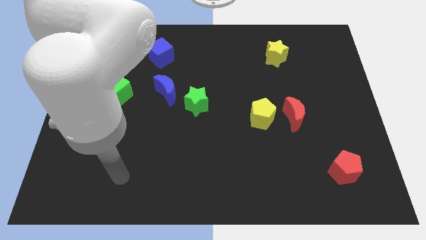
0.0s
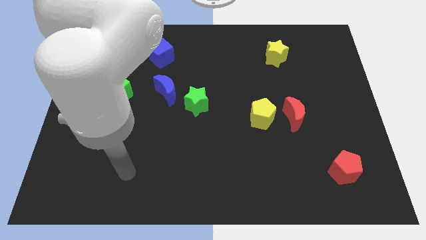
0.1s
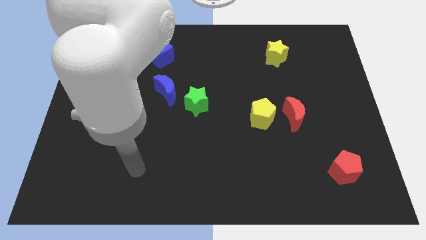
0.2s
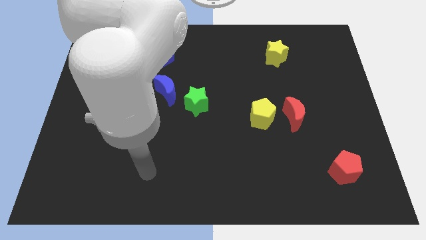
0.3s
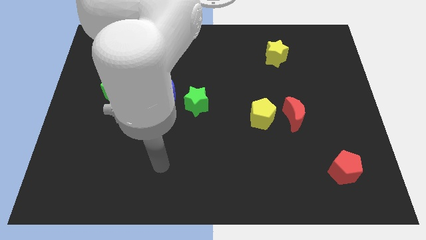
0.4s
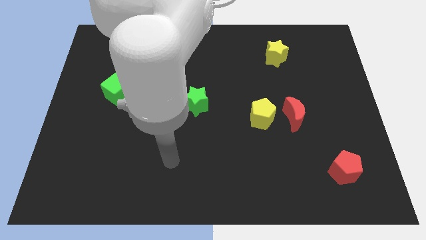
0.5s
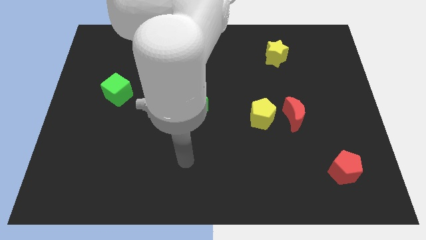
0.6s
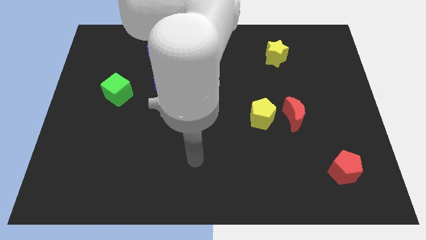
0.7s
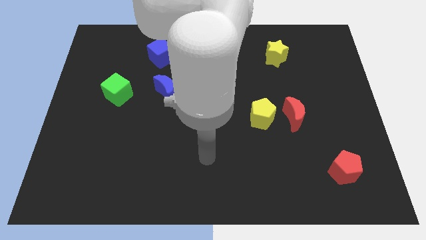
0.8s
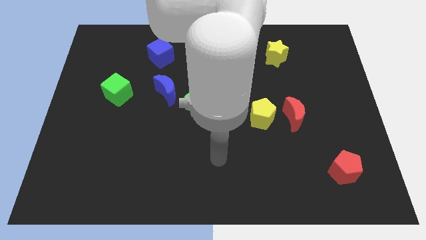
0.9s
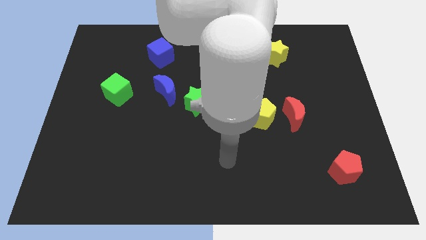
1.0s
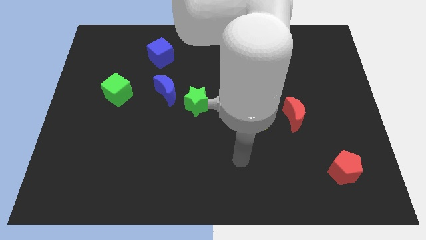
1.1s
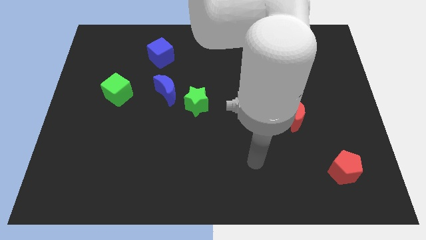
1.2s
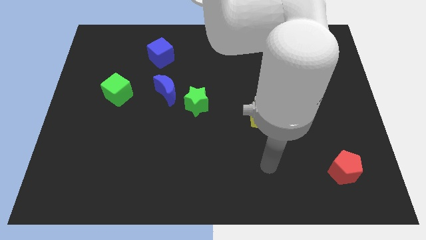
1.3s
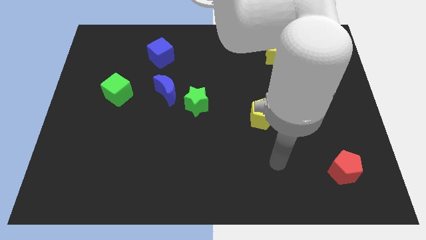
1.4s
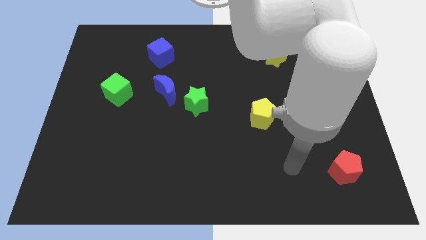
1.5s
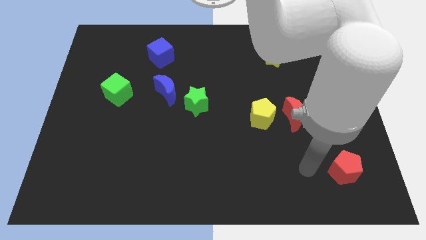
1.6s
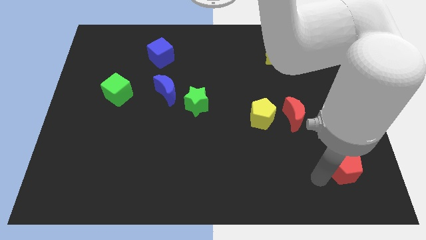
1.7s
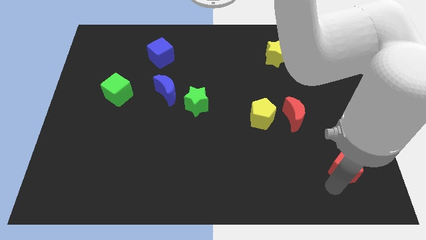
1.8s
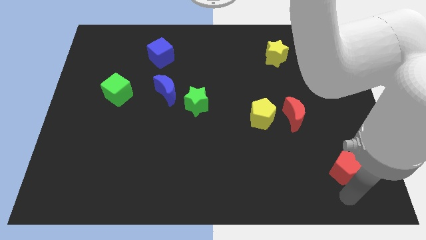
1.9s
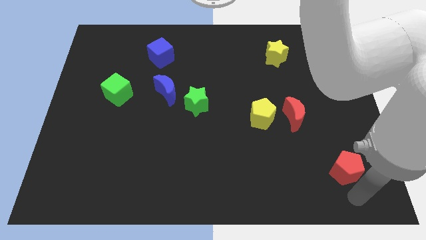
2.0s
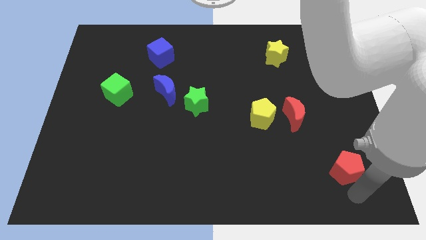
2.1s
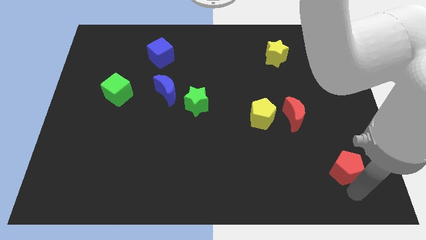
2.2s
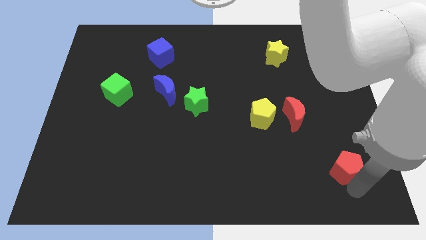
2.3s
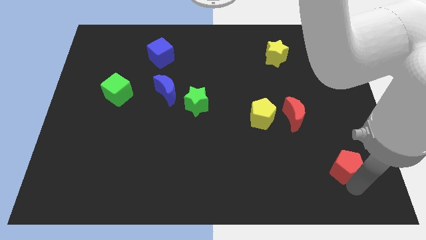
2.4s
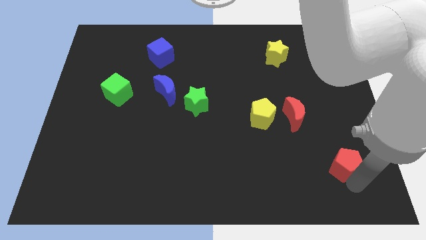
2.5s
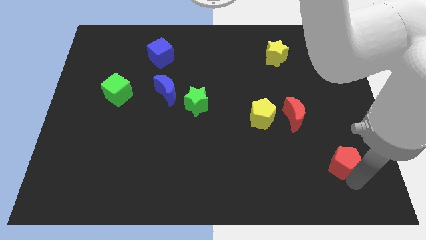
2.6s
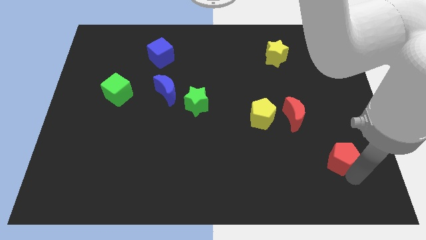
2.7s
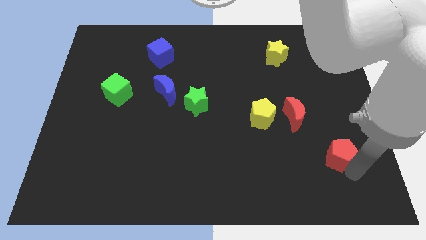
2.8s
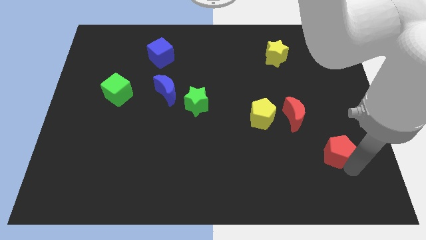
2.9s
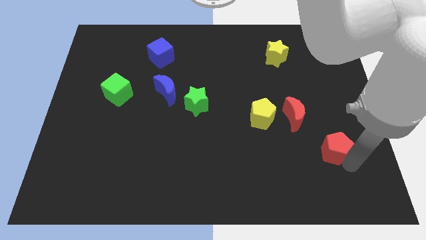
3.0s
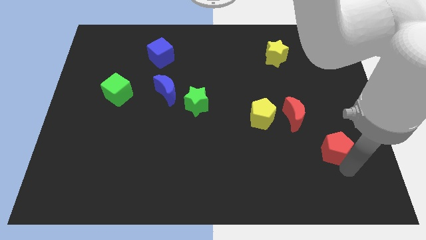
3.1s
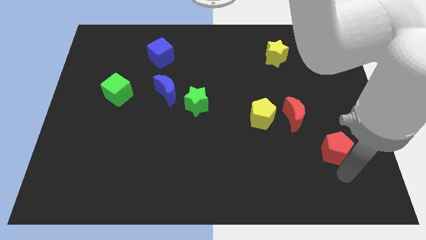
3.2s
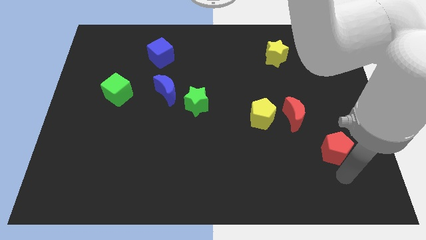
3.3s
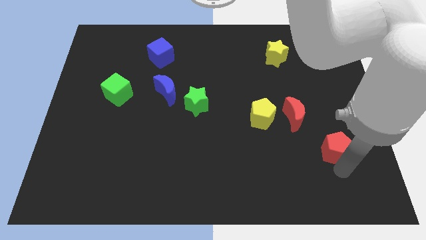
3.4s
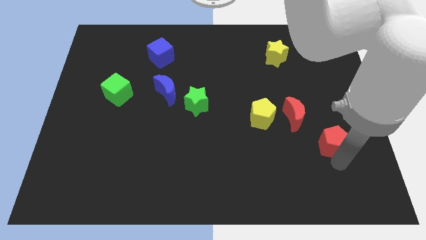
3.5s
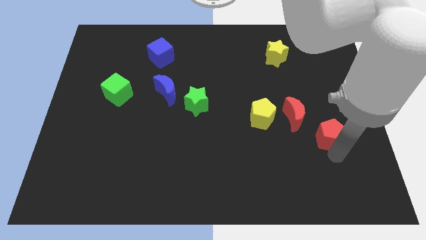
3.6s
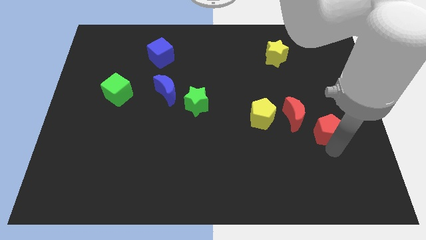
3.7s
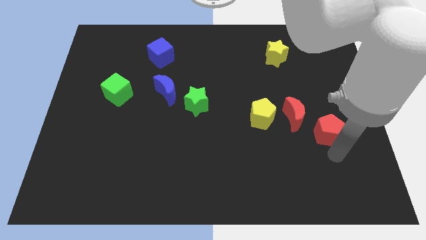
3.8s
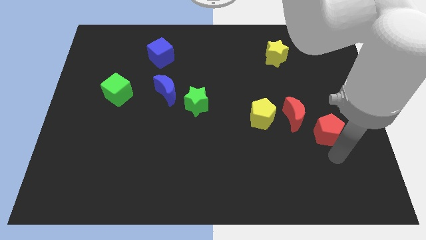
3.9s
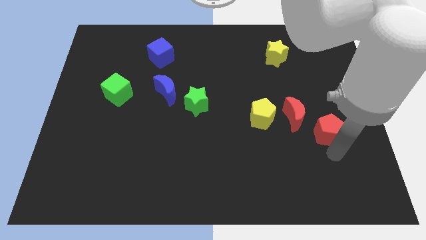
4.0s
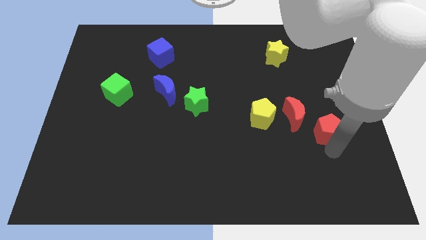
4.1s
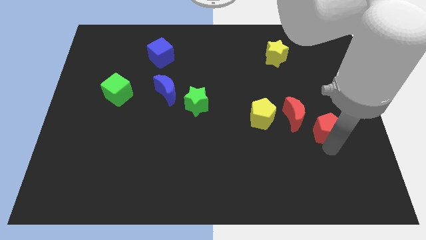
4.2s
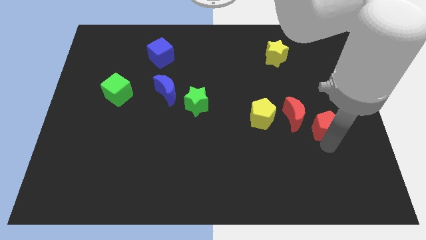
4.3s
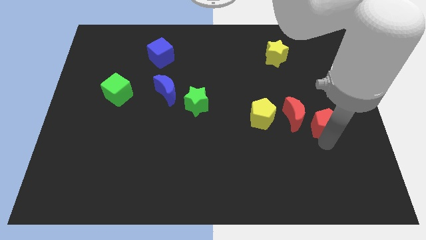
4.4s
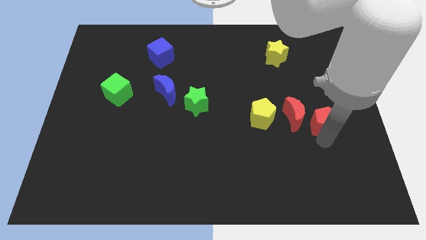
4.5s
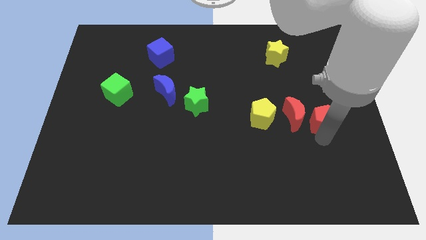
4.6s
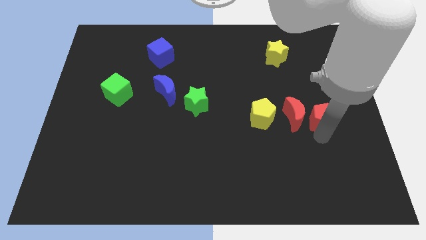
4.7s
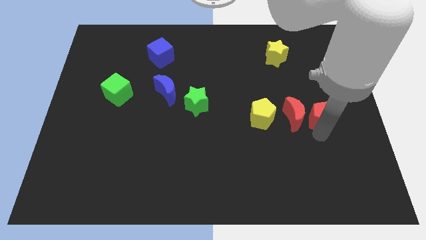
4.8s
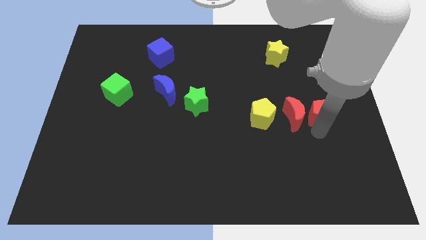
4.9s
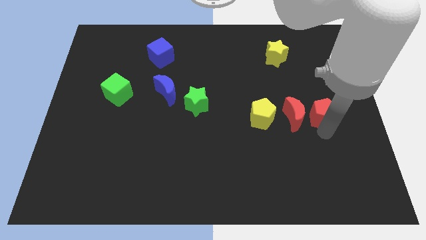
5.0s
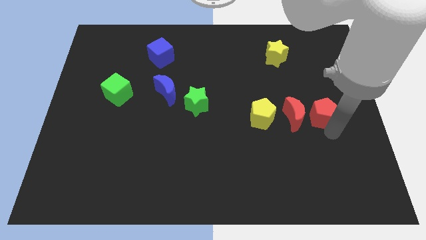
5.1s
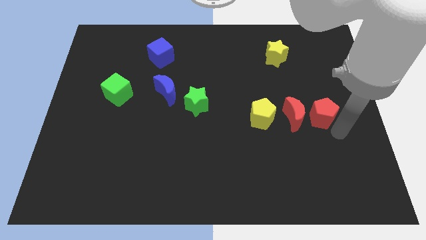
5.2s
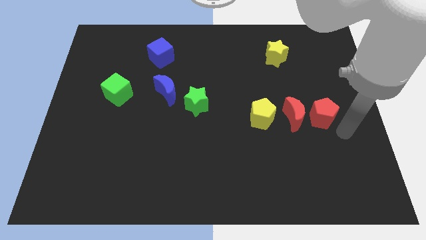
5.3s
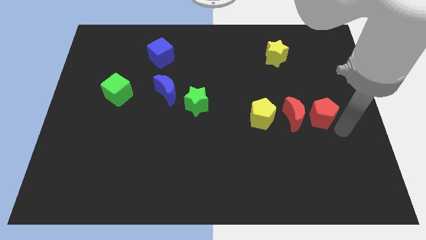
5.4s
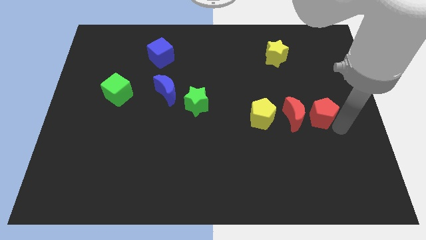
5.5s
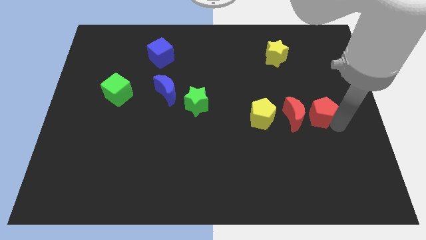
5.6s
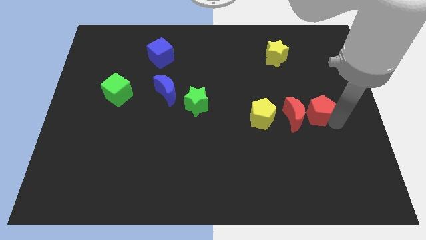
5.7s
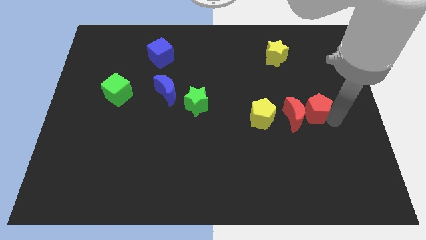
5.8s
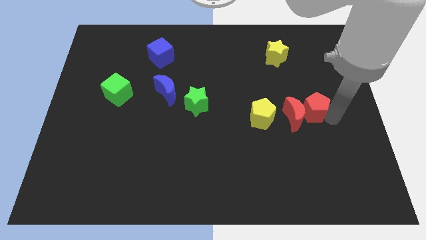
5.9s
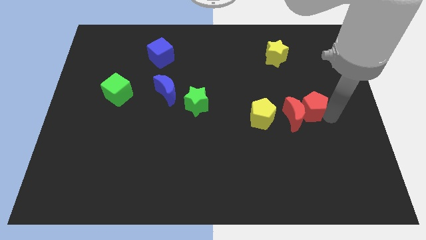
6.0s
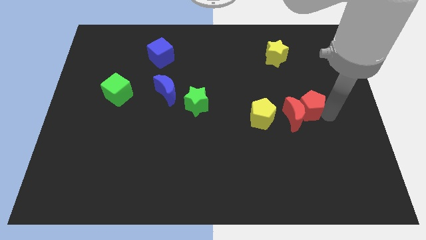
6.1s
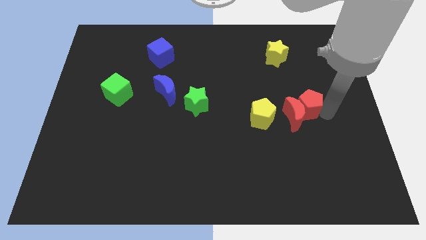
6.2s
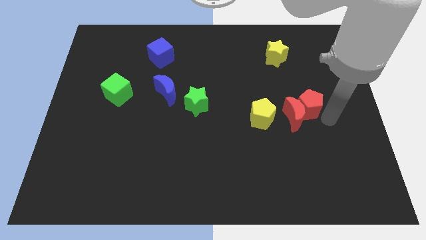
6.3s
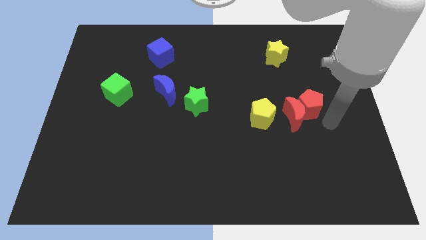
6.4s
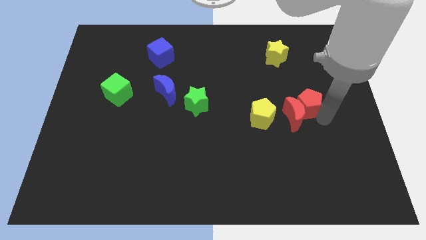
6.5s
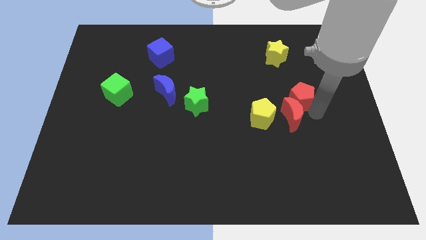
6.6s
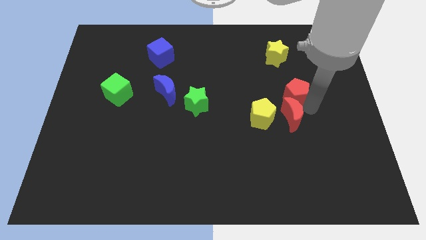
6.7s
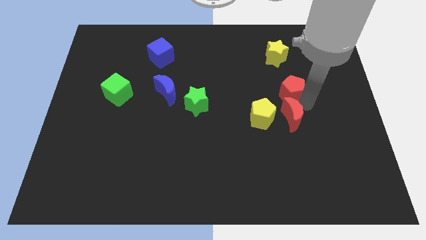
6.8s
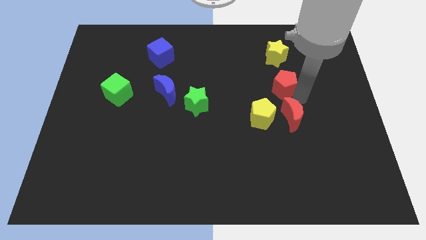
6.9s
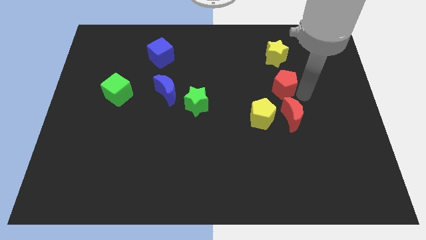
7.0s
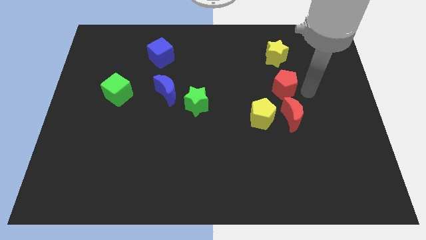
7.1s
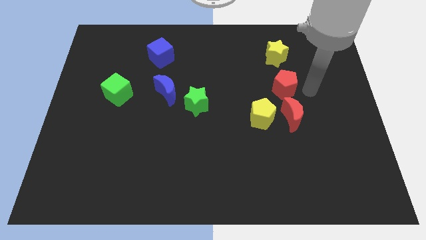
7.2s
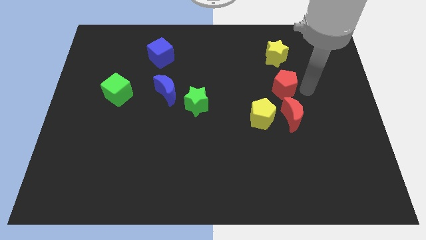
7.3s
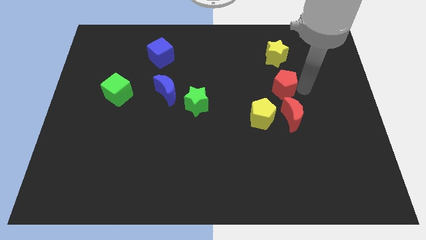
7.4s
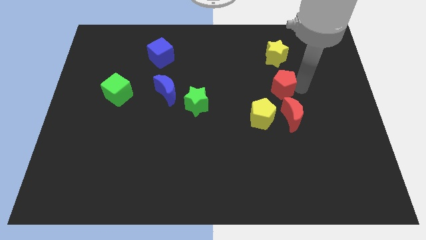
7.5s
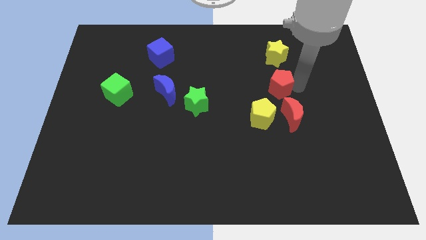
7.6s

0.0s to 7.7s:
slide the red pentagon to the top side of the yellow pentagon
